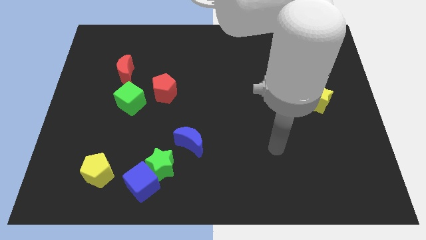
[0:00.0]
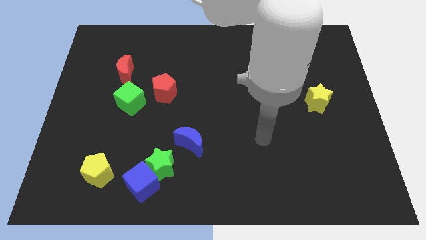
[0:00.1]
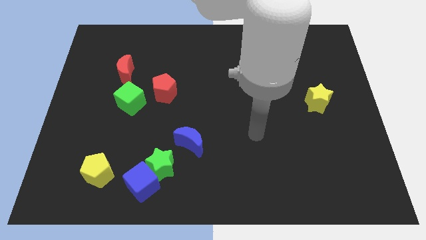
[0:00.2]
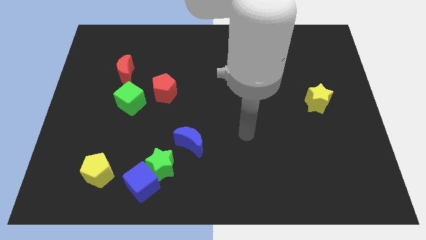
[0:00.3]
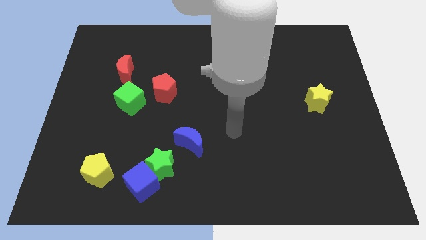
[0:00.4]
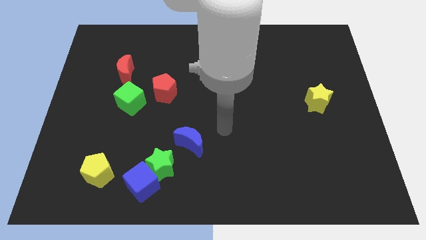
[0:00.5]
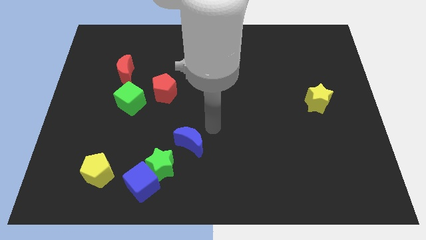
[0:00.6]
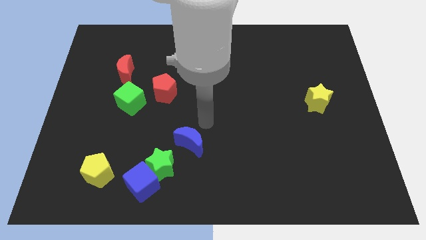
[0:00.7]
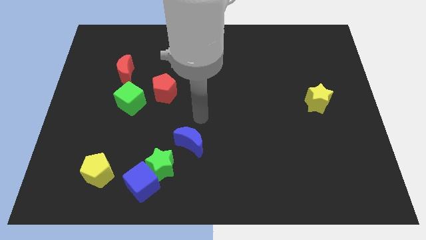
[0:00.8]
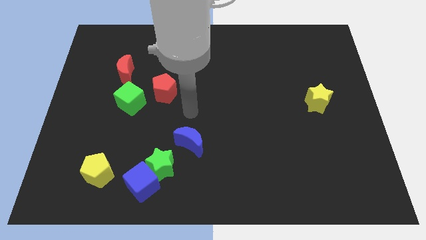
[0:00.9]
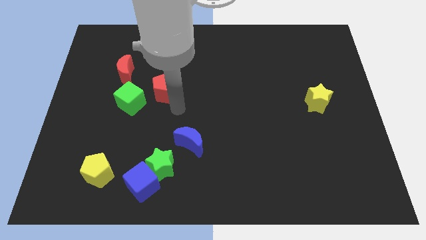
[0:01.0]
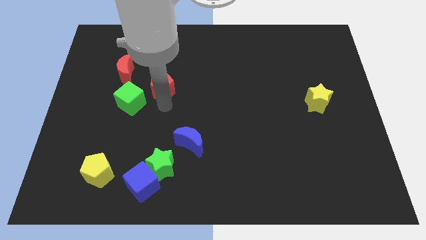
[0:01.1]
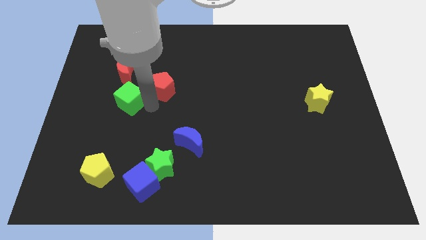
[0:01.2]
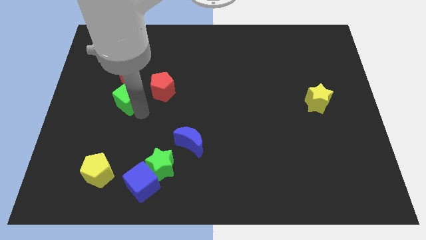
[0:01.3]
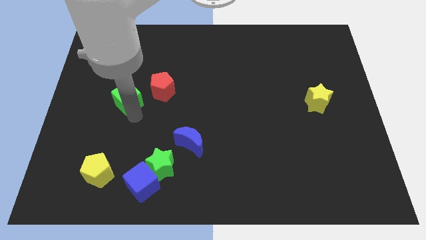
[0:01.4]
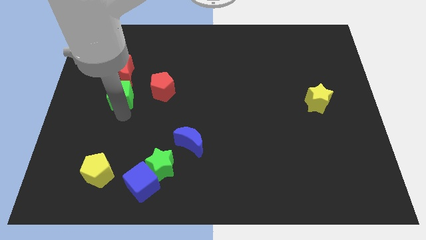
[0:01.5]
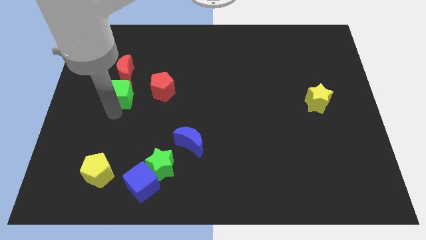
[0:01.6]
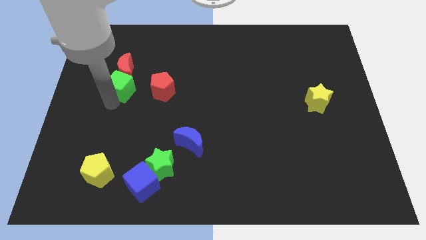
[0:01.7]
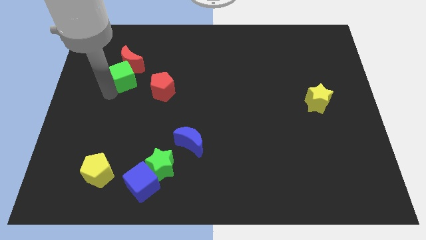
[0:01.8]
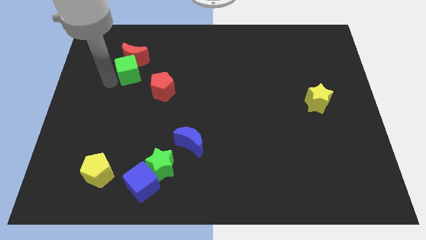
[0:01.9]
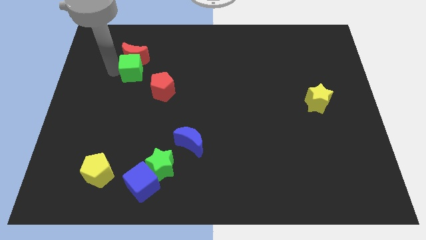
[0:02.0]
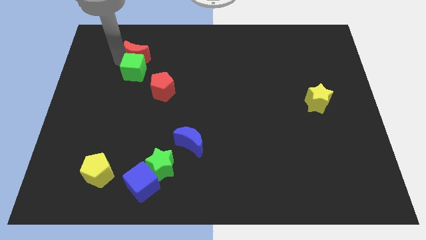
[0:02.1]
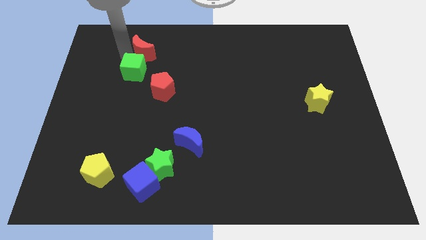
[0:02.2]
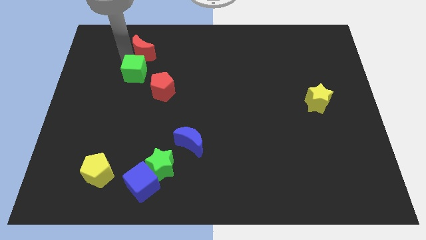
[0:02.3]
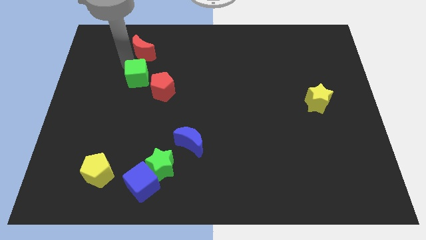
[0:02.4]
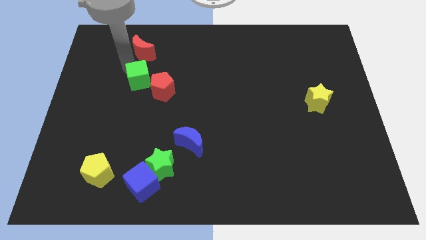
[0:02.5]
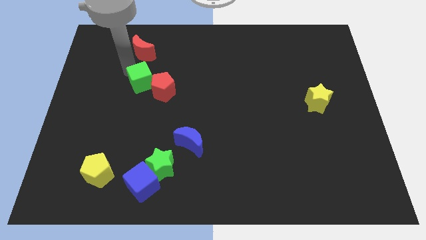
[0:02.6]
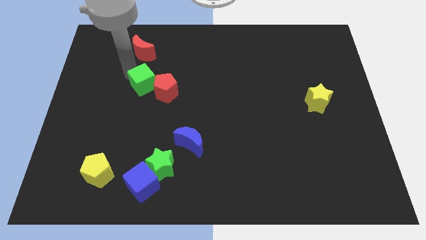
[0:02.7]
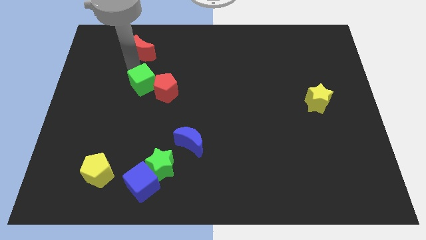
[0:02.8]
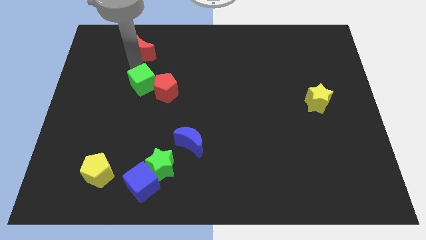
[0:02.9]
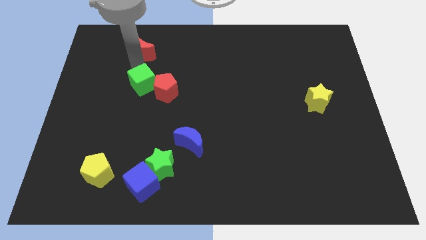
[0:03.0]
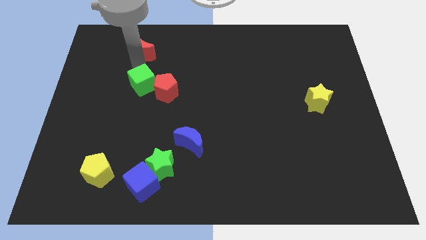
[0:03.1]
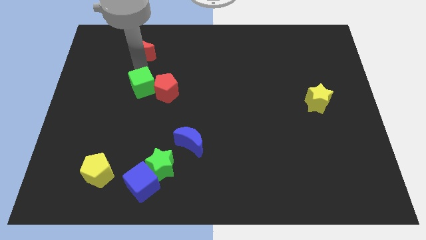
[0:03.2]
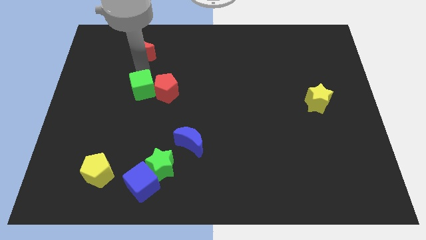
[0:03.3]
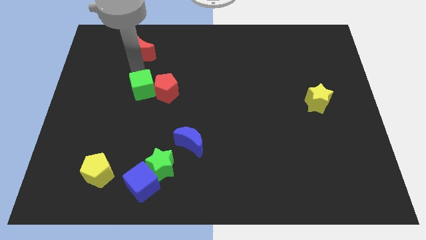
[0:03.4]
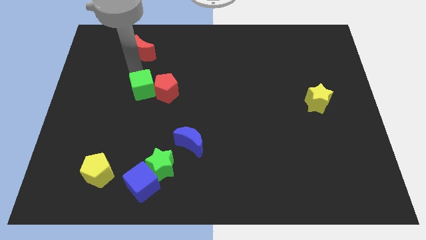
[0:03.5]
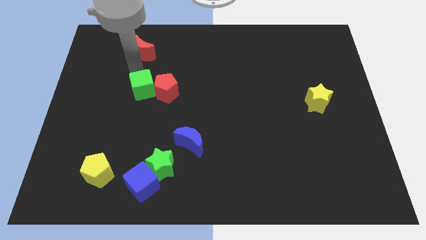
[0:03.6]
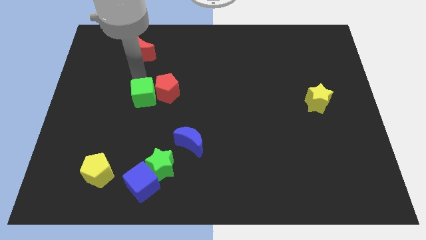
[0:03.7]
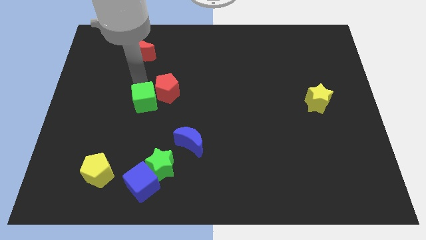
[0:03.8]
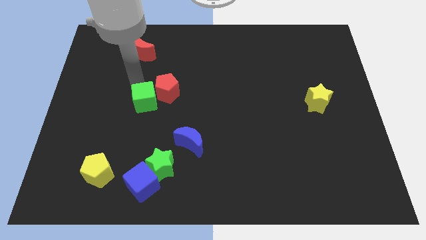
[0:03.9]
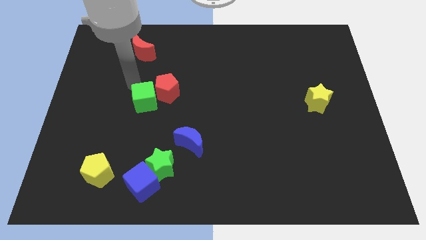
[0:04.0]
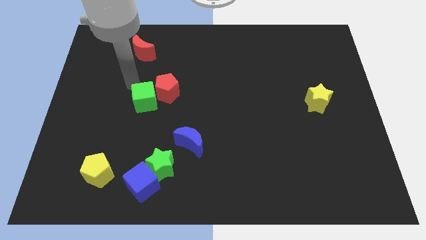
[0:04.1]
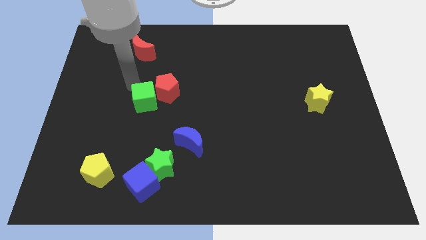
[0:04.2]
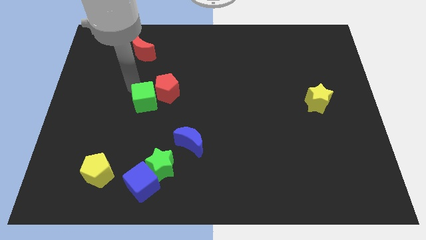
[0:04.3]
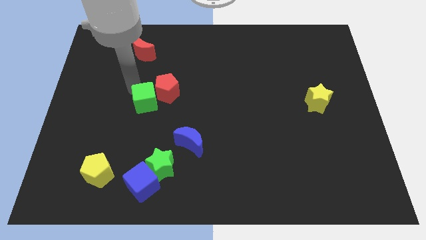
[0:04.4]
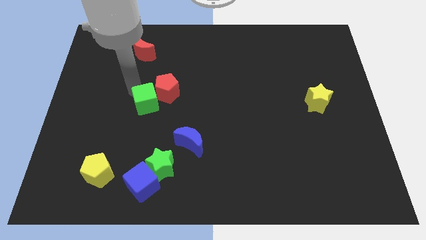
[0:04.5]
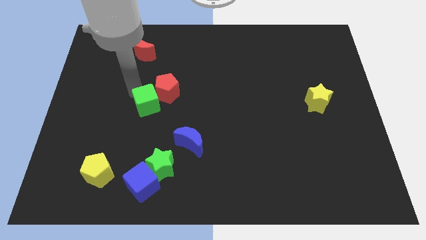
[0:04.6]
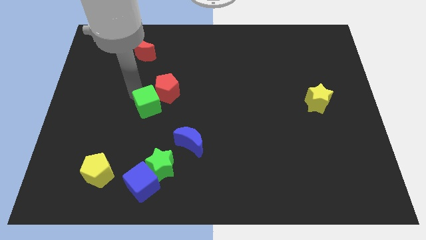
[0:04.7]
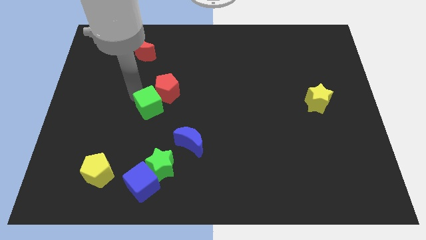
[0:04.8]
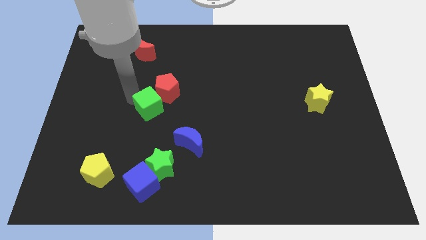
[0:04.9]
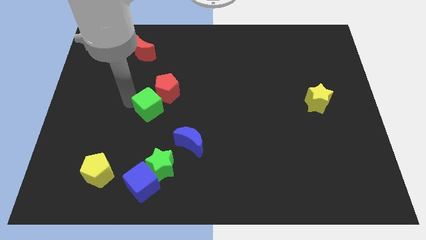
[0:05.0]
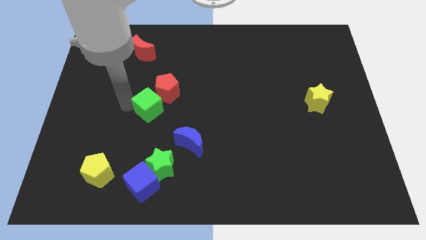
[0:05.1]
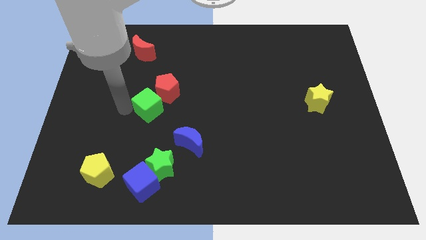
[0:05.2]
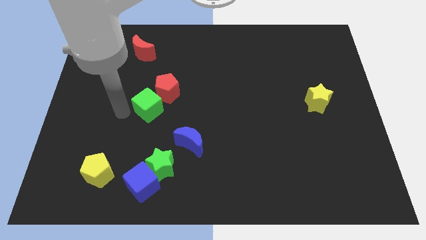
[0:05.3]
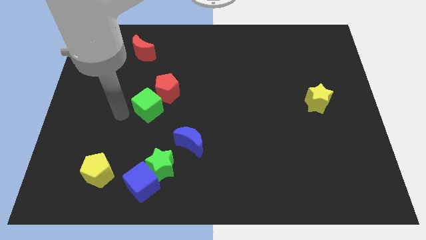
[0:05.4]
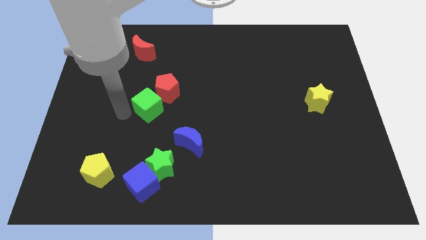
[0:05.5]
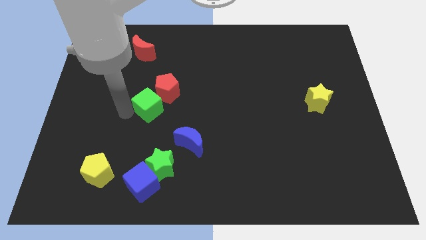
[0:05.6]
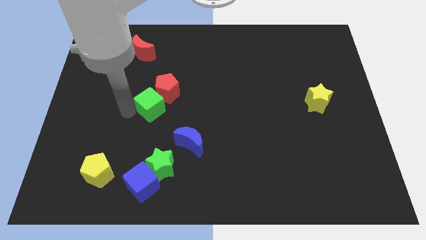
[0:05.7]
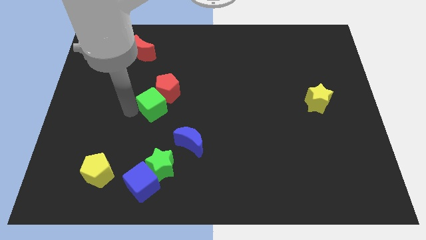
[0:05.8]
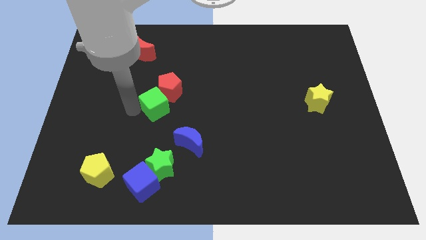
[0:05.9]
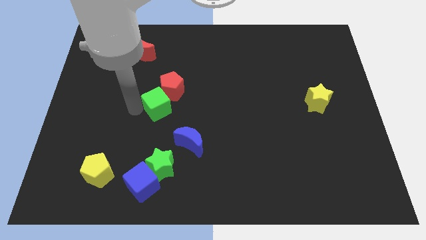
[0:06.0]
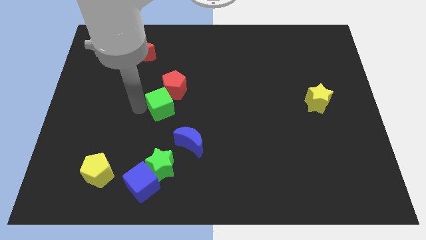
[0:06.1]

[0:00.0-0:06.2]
move the green cube to the center

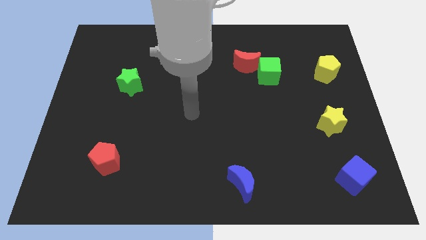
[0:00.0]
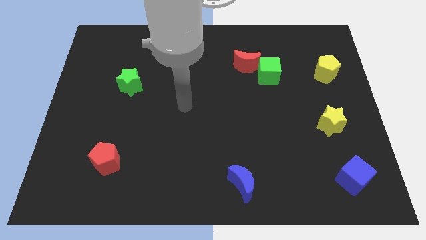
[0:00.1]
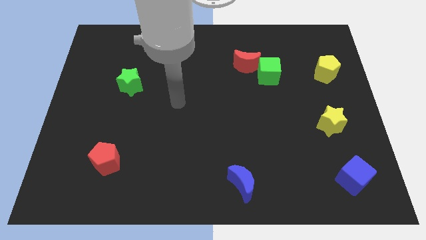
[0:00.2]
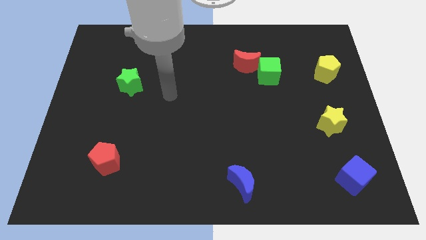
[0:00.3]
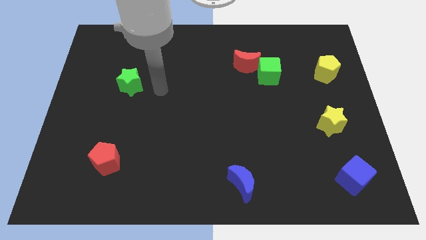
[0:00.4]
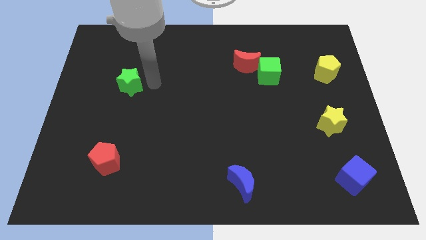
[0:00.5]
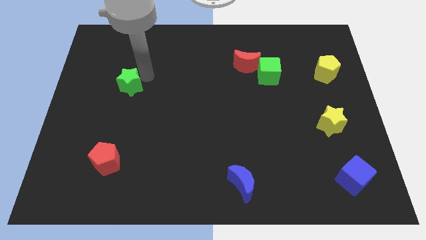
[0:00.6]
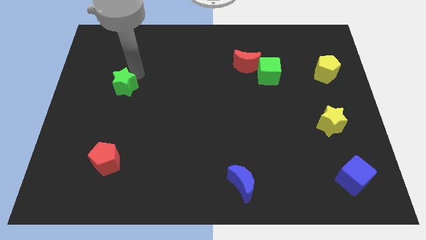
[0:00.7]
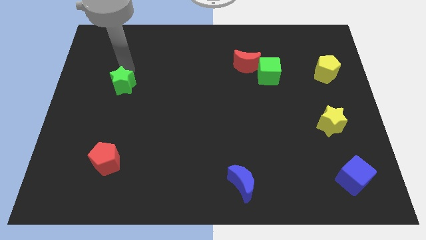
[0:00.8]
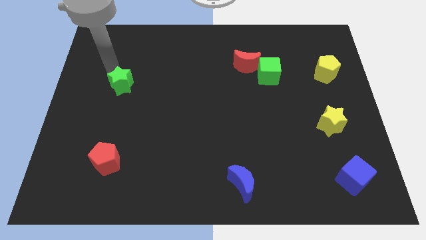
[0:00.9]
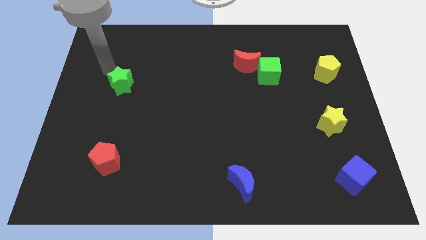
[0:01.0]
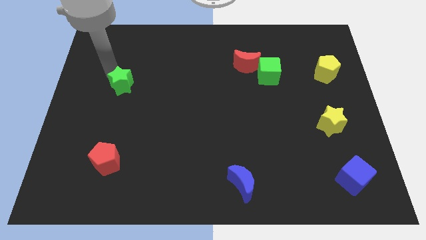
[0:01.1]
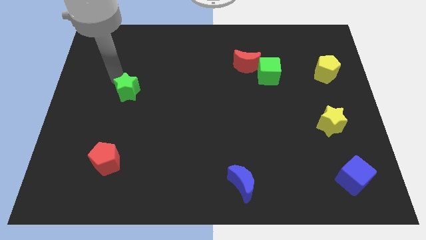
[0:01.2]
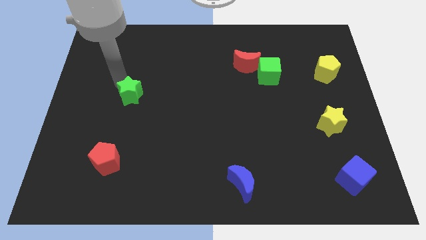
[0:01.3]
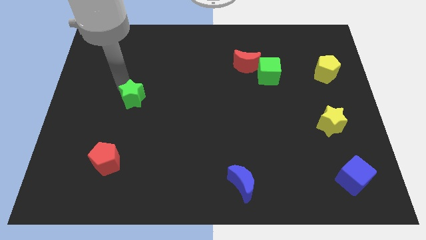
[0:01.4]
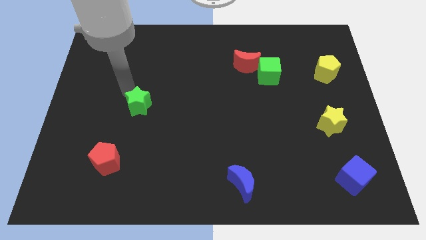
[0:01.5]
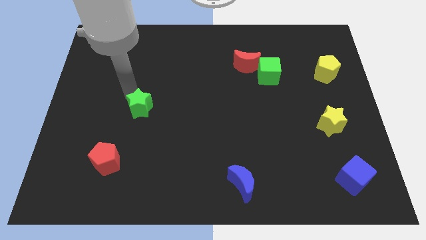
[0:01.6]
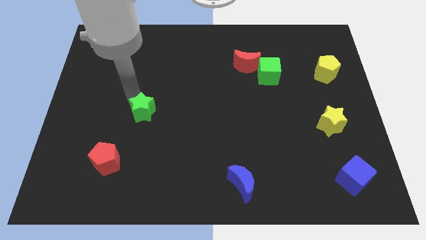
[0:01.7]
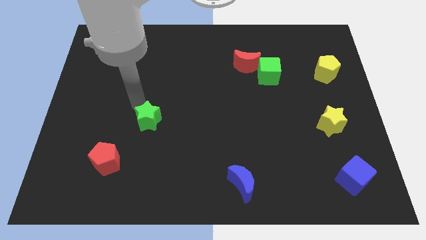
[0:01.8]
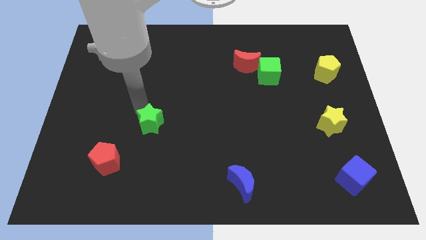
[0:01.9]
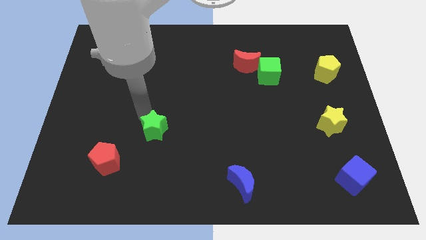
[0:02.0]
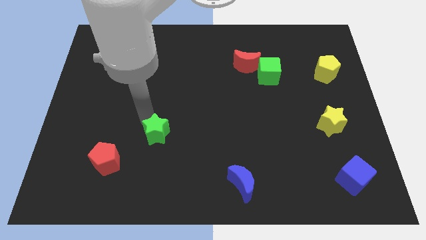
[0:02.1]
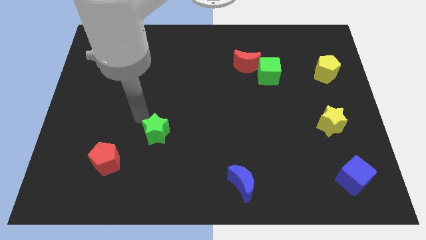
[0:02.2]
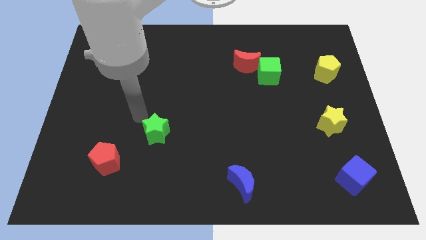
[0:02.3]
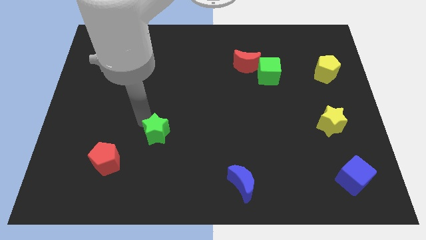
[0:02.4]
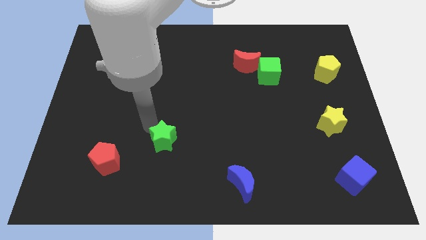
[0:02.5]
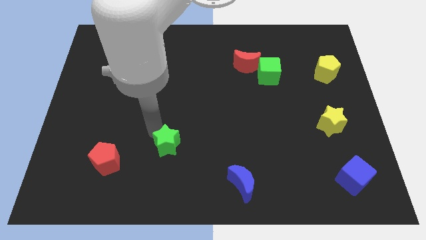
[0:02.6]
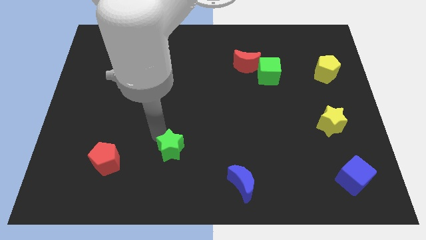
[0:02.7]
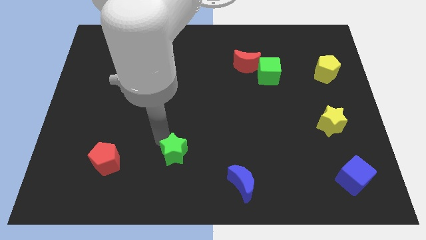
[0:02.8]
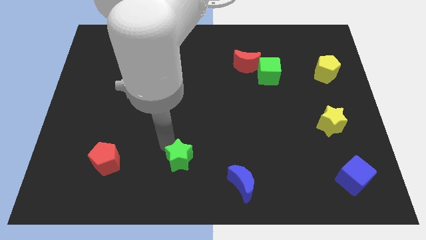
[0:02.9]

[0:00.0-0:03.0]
put the green star to the bottom
